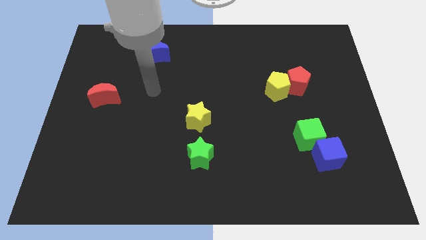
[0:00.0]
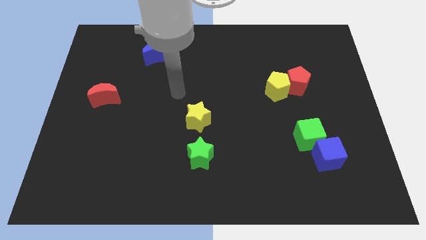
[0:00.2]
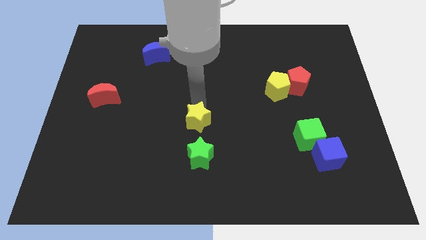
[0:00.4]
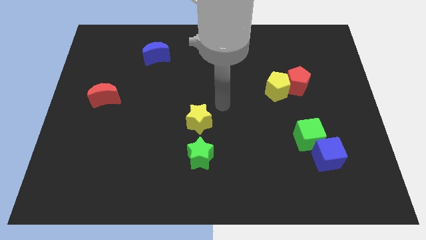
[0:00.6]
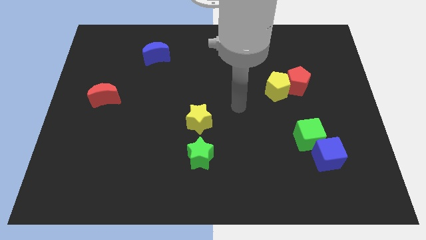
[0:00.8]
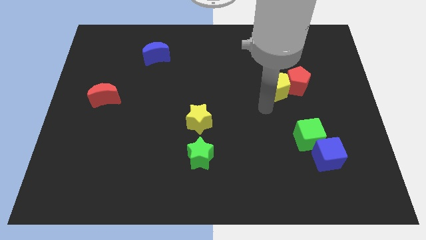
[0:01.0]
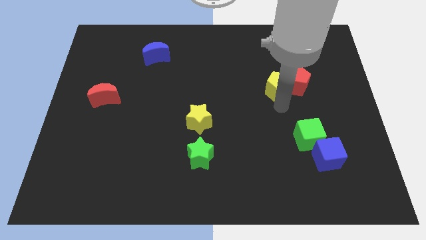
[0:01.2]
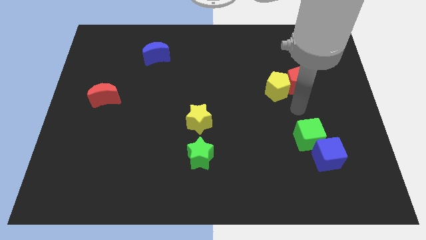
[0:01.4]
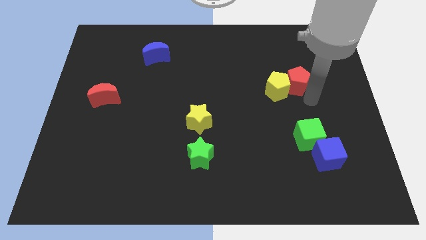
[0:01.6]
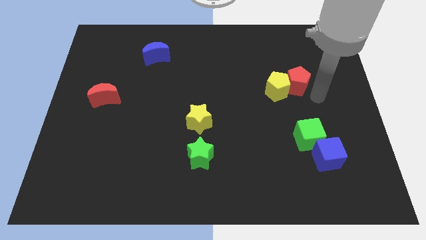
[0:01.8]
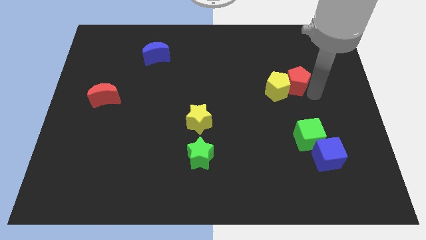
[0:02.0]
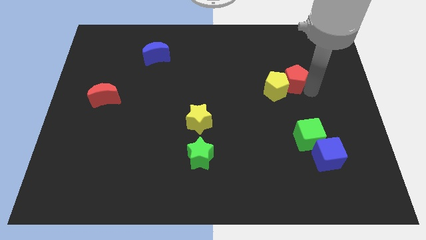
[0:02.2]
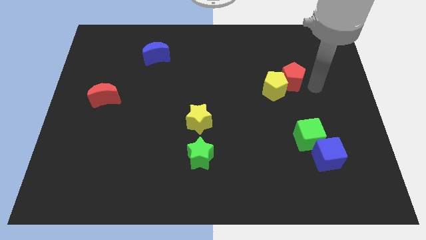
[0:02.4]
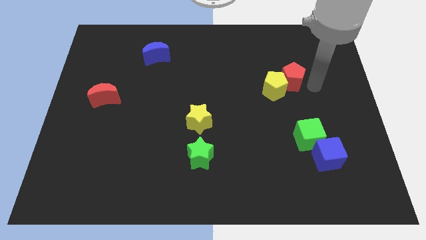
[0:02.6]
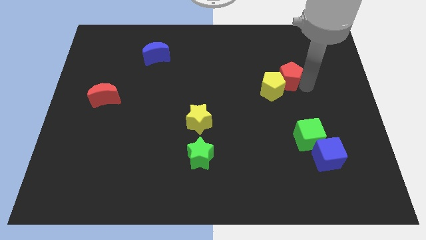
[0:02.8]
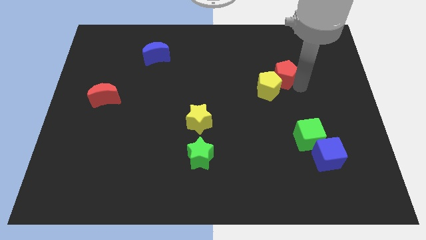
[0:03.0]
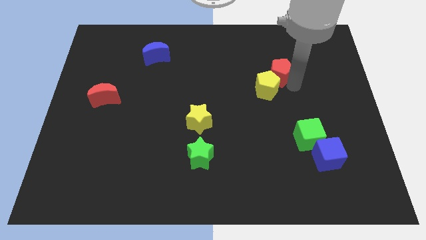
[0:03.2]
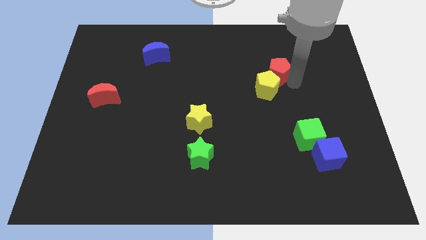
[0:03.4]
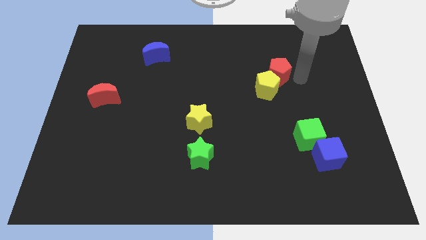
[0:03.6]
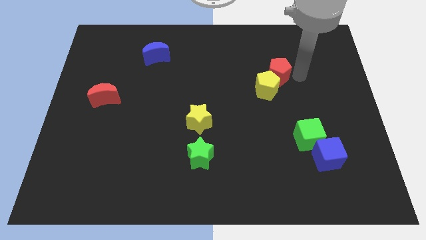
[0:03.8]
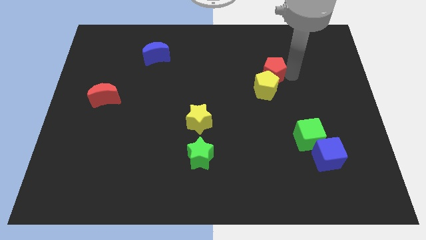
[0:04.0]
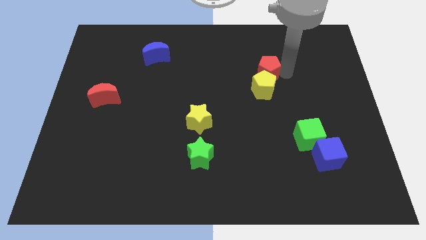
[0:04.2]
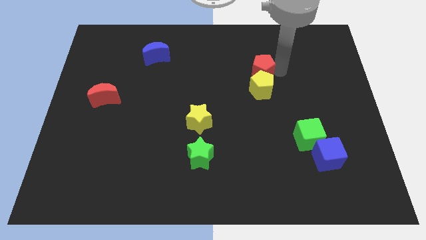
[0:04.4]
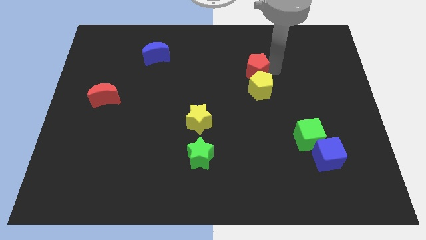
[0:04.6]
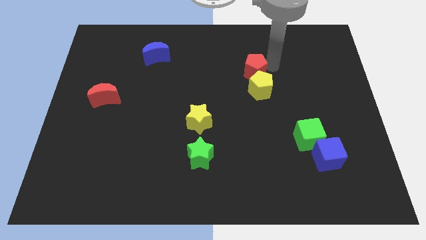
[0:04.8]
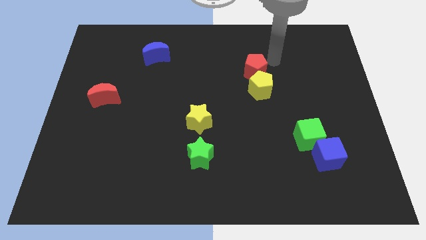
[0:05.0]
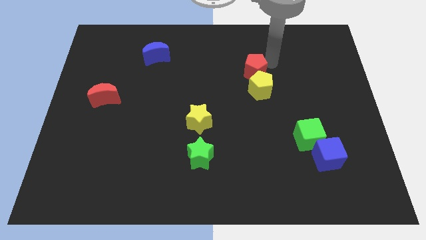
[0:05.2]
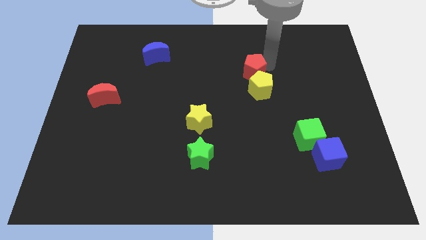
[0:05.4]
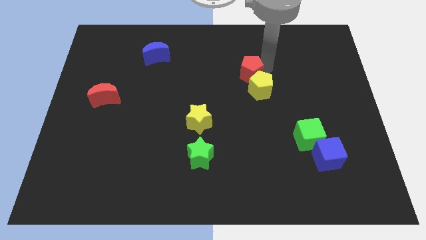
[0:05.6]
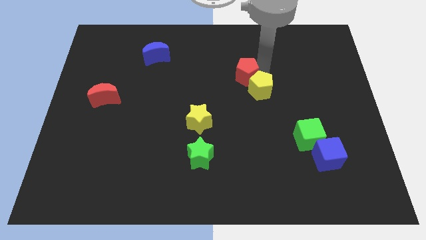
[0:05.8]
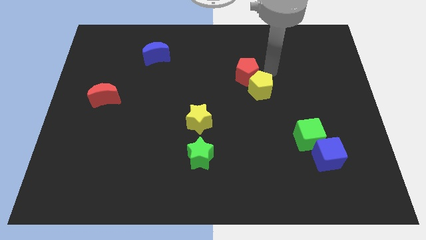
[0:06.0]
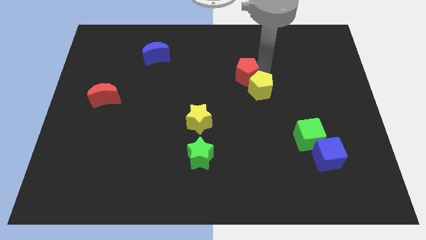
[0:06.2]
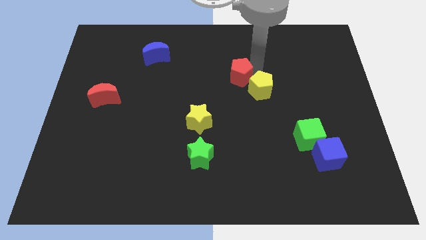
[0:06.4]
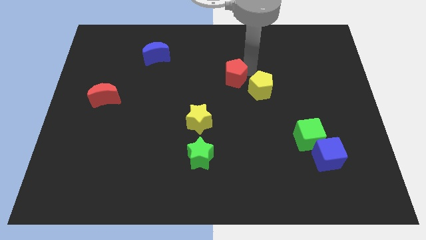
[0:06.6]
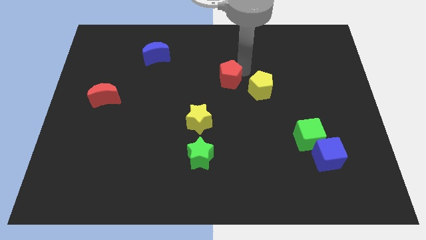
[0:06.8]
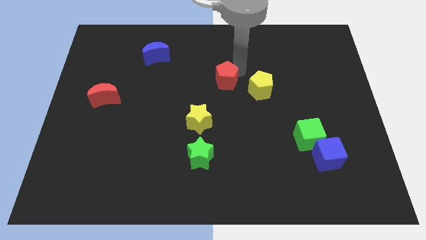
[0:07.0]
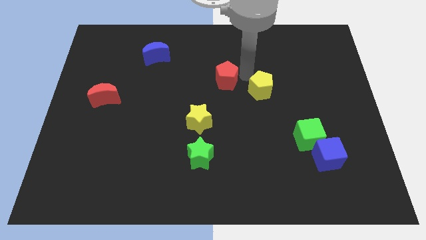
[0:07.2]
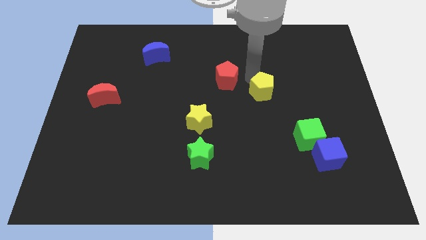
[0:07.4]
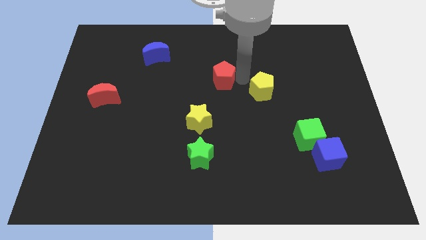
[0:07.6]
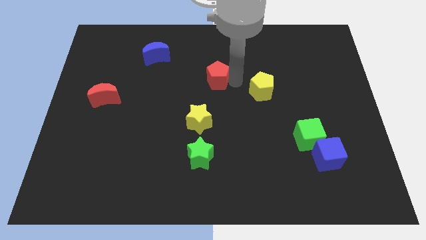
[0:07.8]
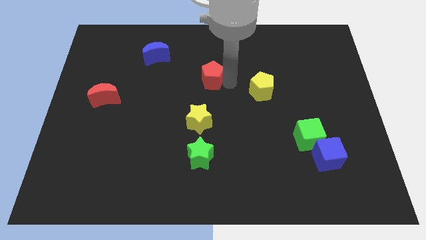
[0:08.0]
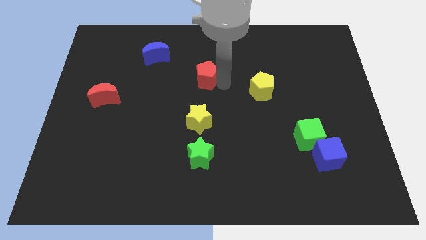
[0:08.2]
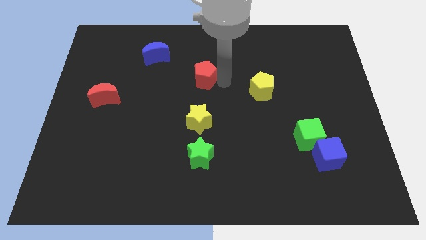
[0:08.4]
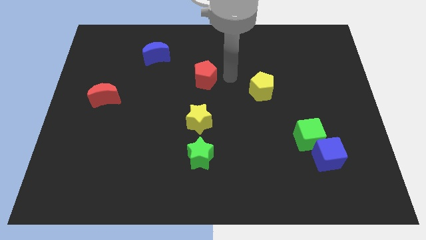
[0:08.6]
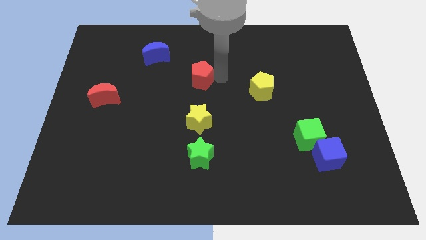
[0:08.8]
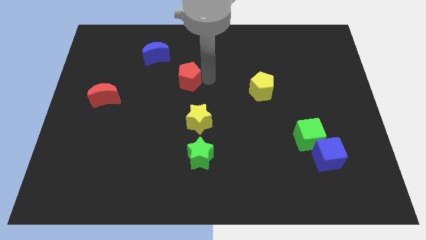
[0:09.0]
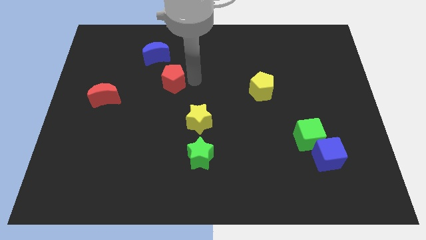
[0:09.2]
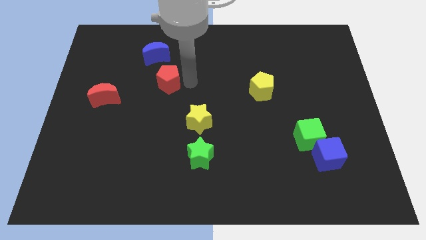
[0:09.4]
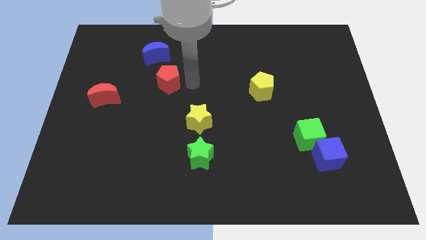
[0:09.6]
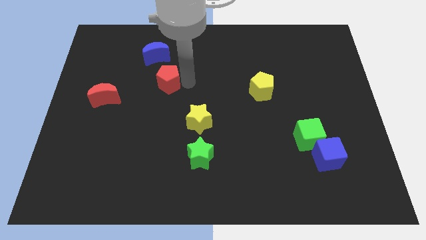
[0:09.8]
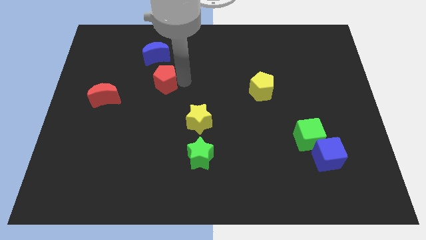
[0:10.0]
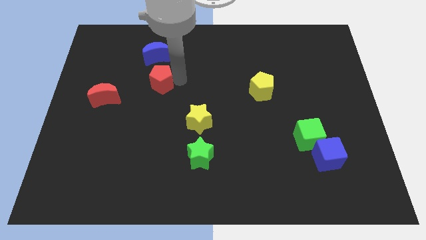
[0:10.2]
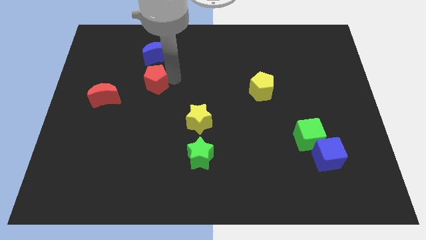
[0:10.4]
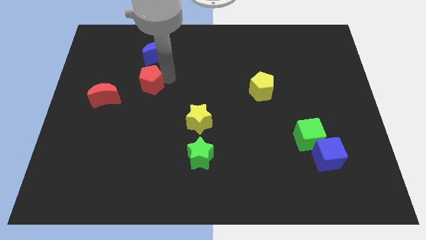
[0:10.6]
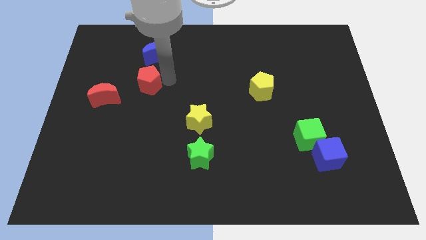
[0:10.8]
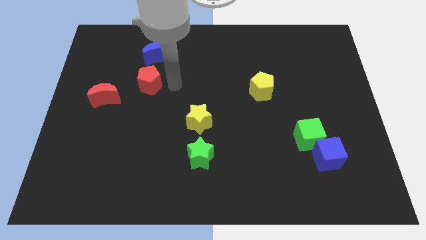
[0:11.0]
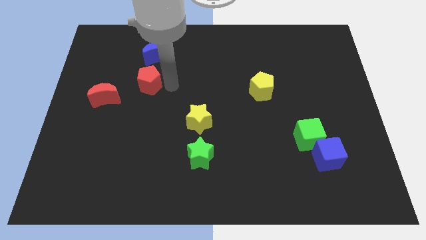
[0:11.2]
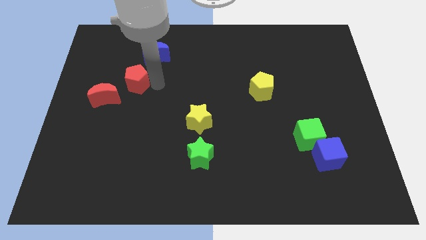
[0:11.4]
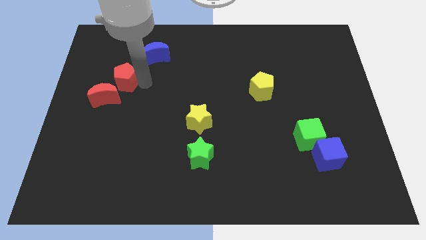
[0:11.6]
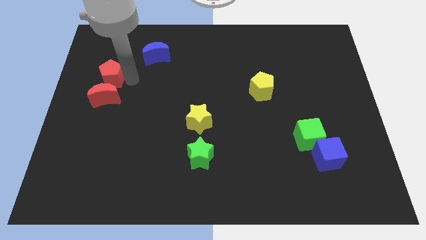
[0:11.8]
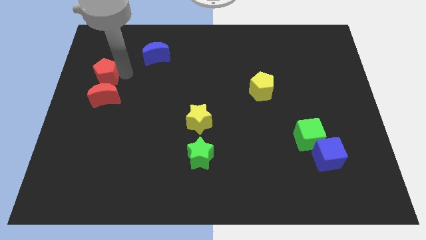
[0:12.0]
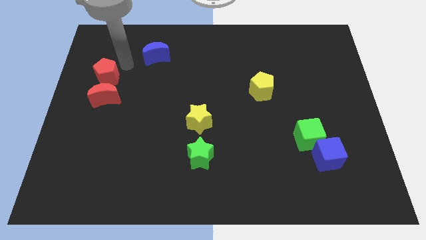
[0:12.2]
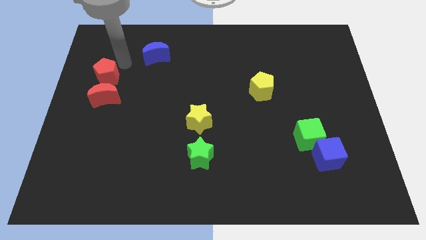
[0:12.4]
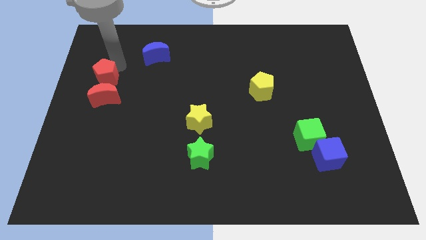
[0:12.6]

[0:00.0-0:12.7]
put the red pentagon to the left side

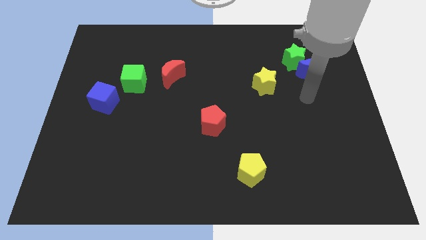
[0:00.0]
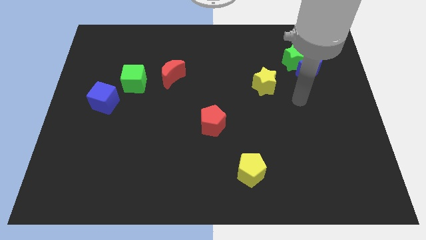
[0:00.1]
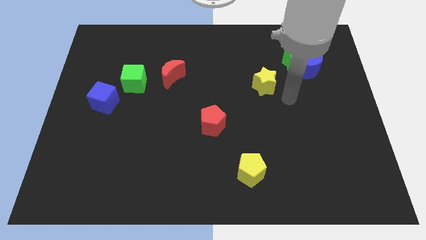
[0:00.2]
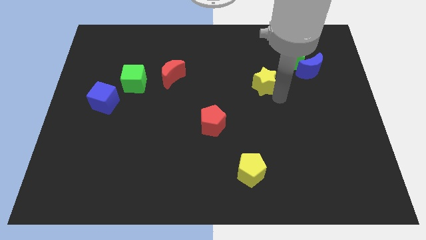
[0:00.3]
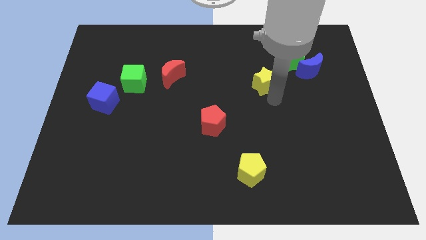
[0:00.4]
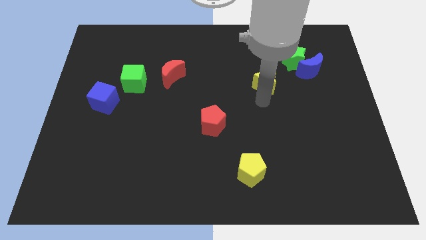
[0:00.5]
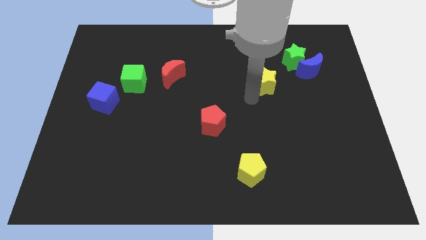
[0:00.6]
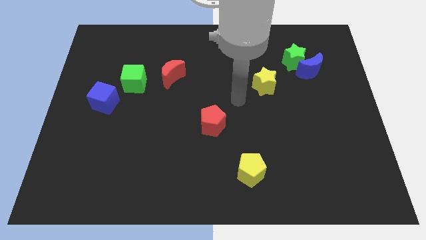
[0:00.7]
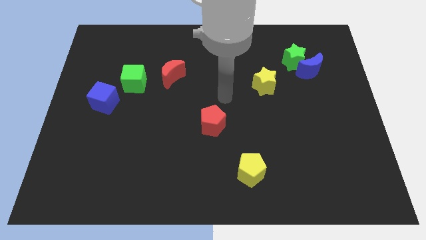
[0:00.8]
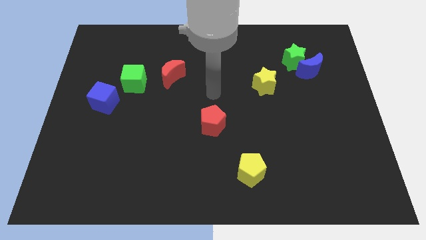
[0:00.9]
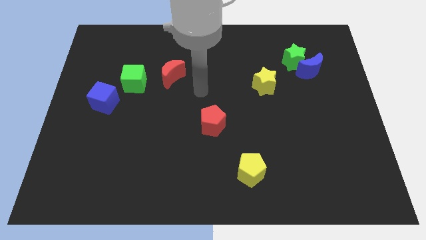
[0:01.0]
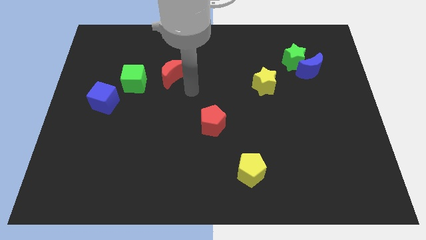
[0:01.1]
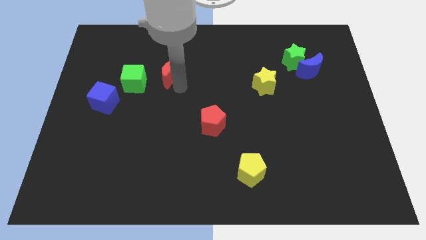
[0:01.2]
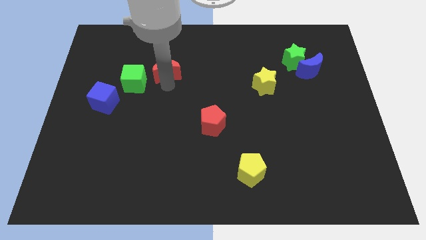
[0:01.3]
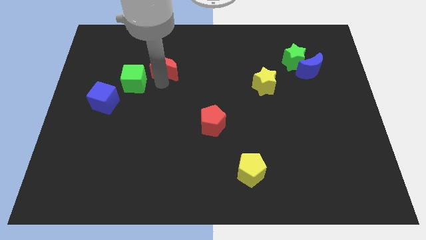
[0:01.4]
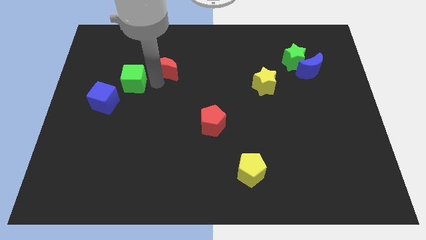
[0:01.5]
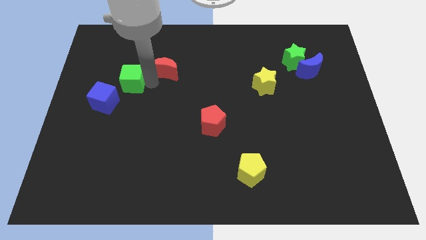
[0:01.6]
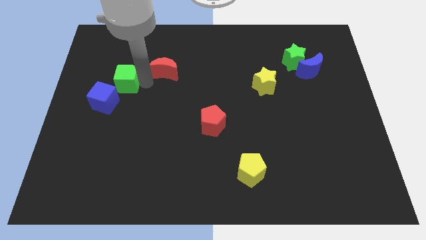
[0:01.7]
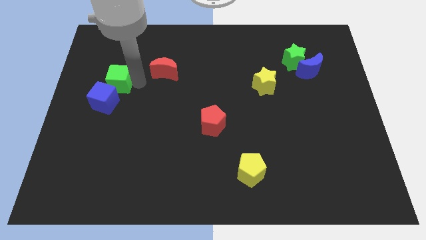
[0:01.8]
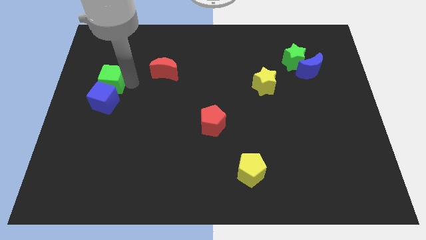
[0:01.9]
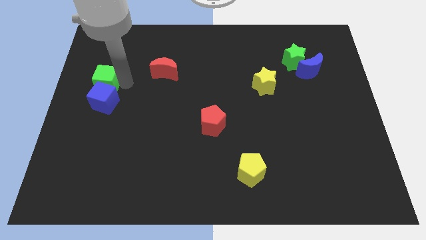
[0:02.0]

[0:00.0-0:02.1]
push the green cube to the center left
